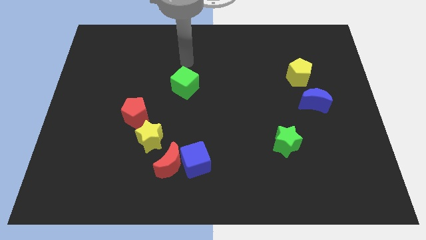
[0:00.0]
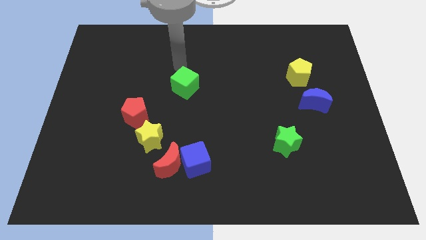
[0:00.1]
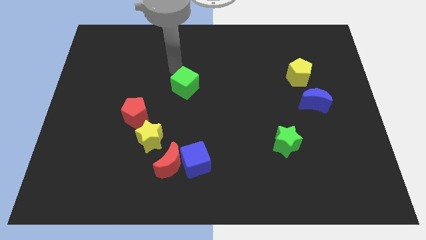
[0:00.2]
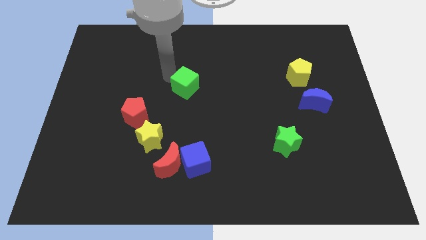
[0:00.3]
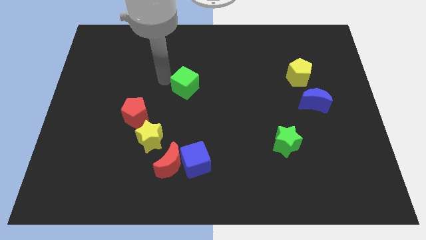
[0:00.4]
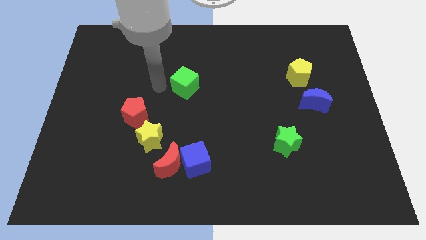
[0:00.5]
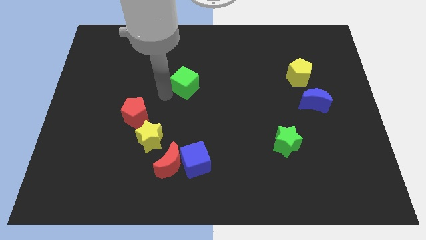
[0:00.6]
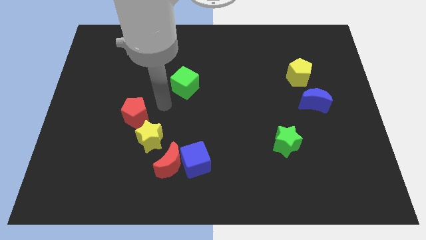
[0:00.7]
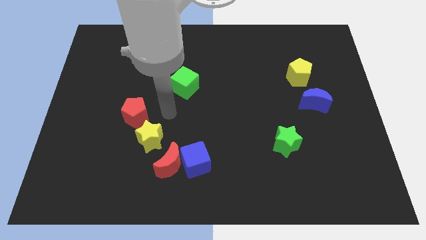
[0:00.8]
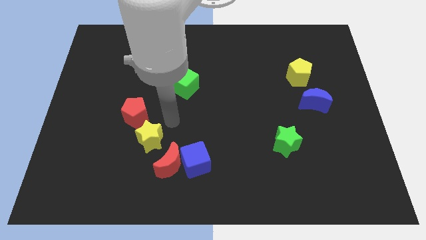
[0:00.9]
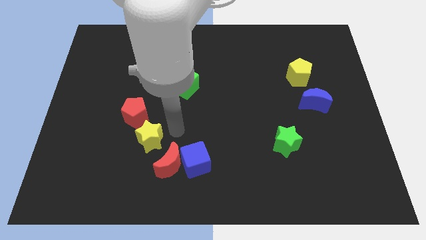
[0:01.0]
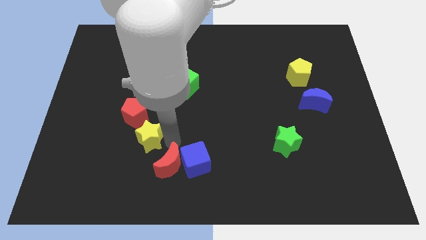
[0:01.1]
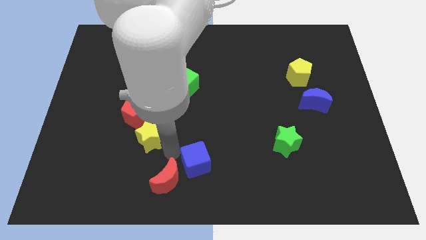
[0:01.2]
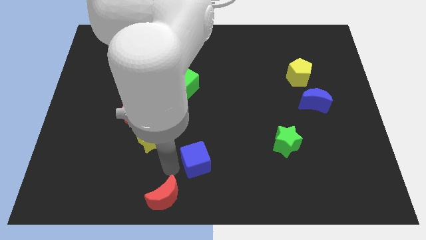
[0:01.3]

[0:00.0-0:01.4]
pull the blue cube apart from the red moon

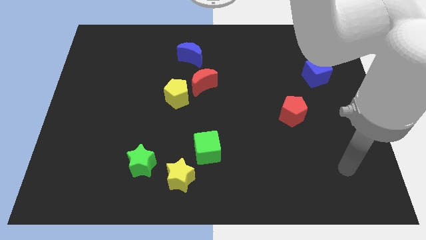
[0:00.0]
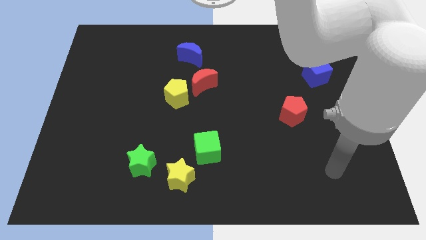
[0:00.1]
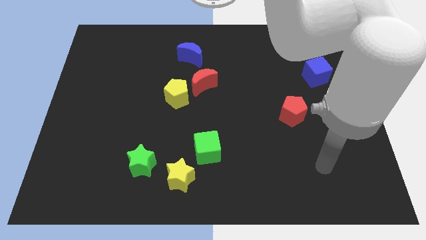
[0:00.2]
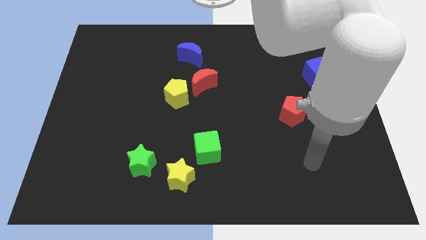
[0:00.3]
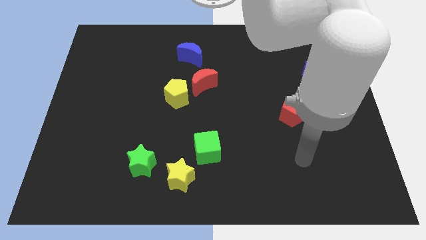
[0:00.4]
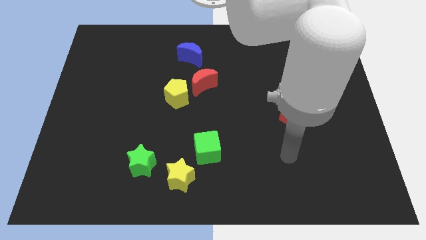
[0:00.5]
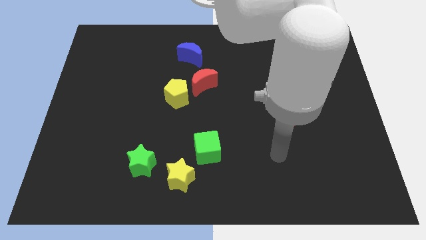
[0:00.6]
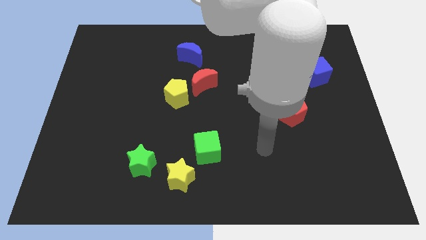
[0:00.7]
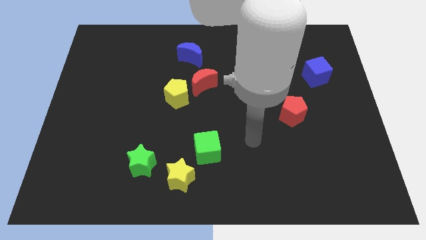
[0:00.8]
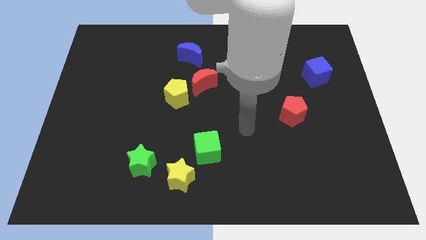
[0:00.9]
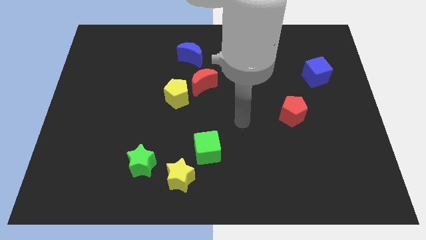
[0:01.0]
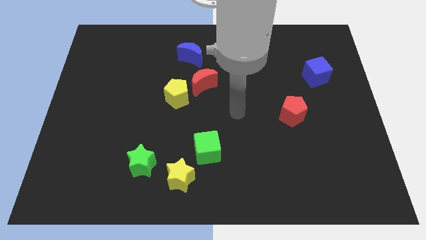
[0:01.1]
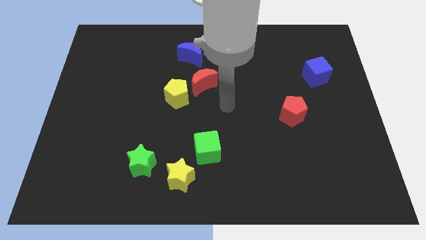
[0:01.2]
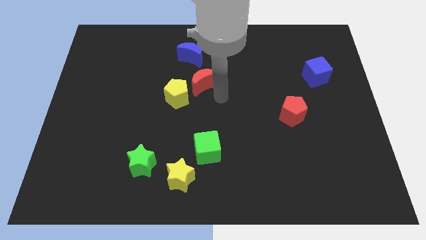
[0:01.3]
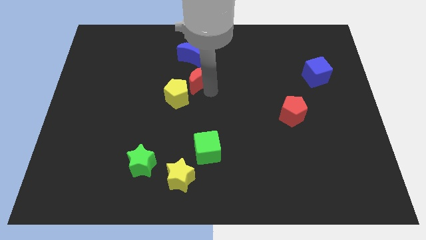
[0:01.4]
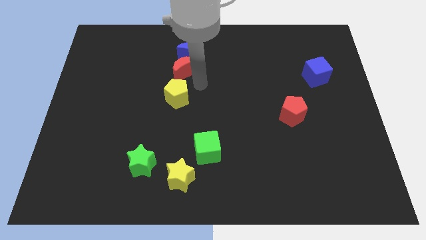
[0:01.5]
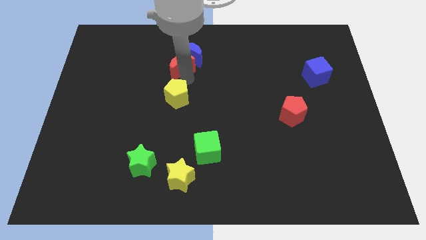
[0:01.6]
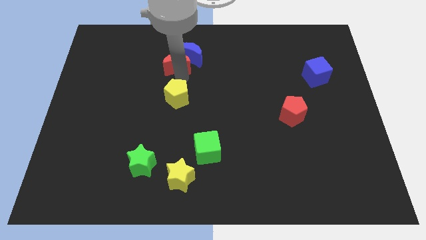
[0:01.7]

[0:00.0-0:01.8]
pull the yellow pentagon apart from the red moon

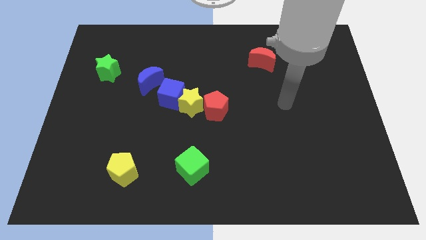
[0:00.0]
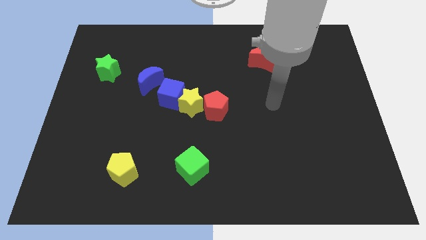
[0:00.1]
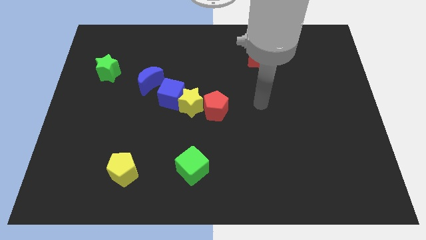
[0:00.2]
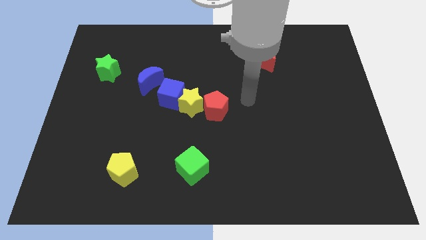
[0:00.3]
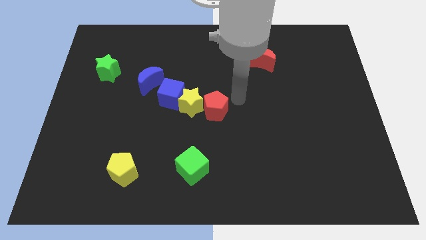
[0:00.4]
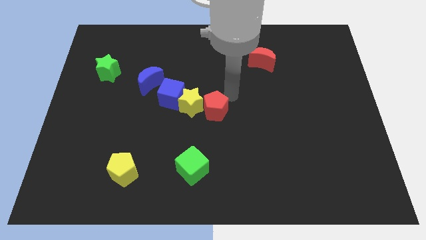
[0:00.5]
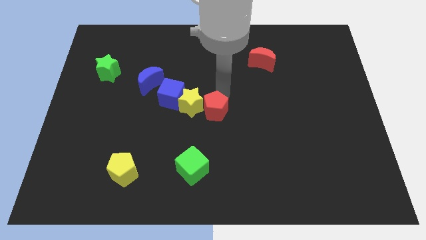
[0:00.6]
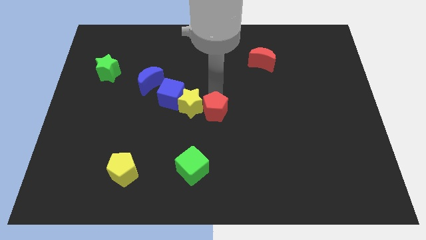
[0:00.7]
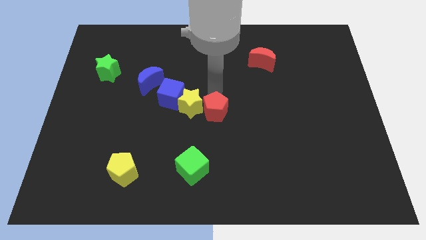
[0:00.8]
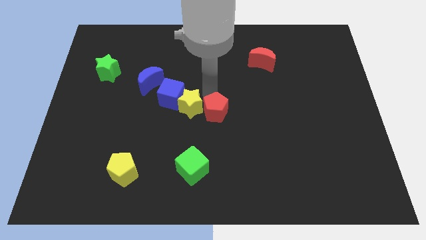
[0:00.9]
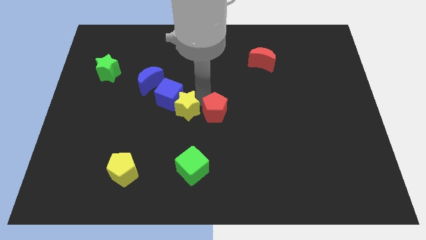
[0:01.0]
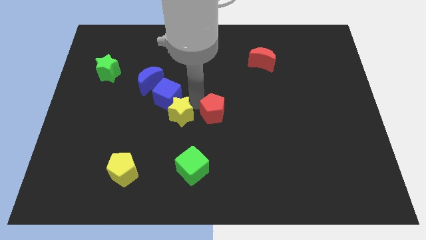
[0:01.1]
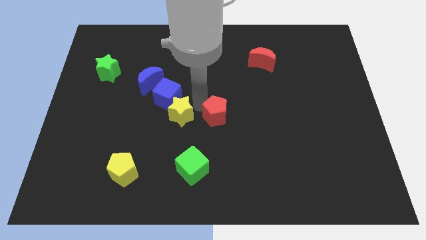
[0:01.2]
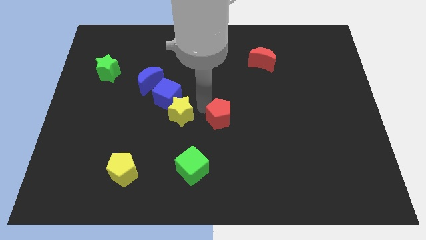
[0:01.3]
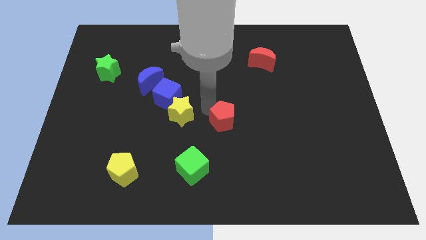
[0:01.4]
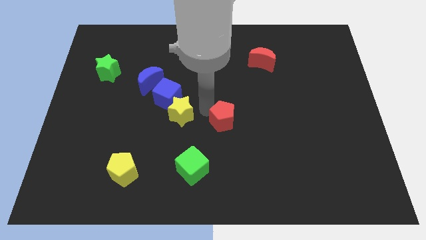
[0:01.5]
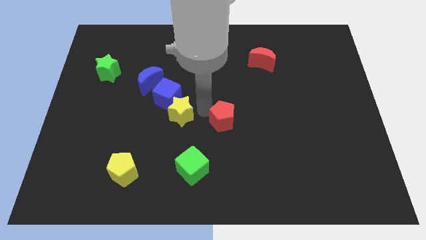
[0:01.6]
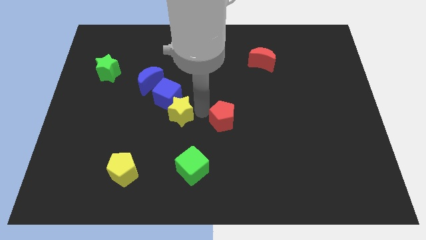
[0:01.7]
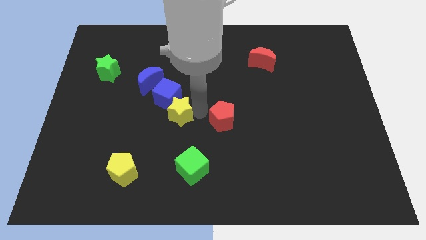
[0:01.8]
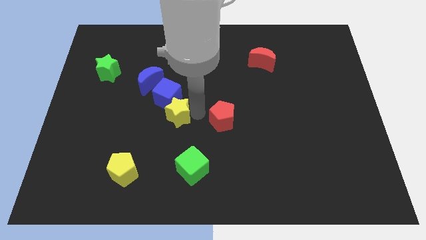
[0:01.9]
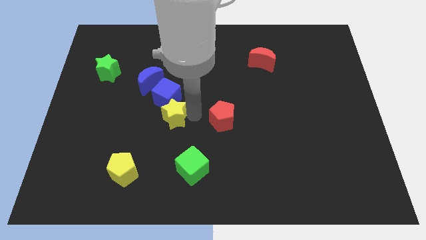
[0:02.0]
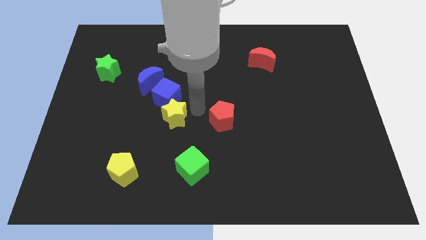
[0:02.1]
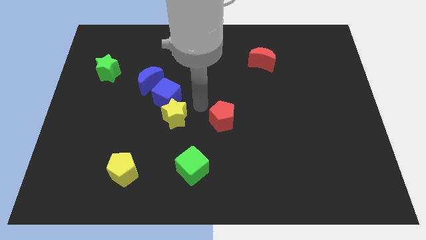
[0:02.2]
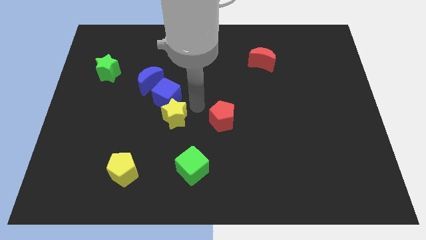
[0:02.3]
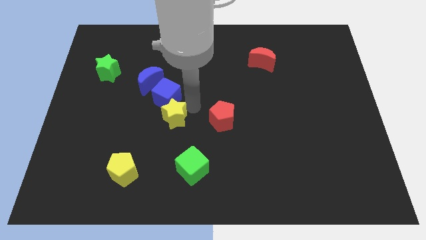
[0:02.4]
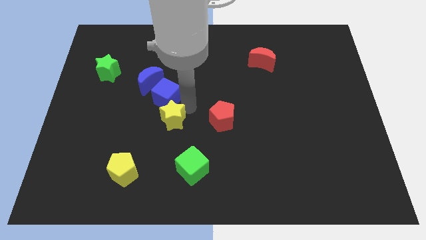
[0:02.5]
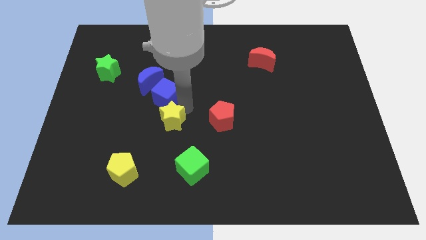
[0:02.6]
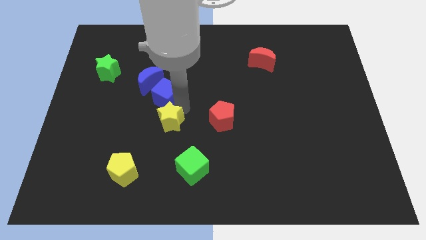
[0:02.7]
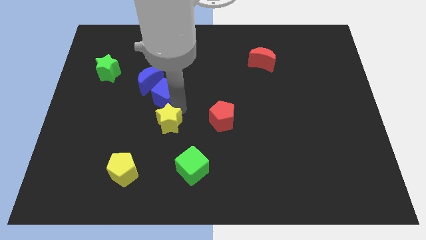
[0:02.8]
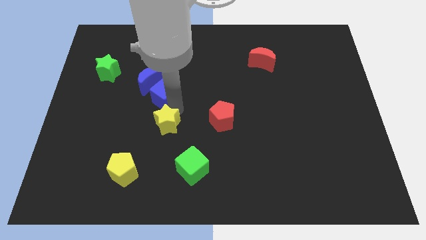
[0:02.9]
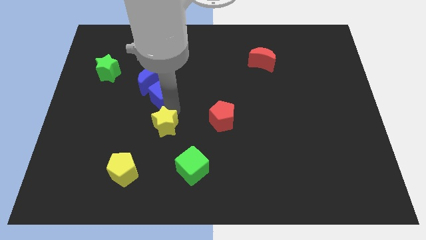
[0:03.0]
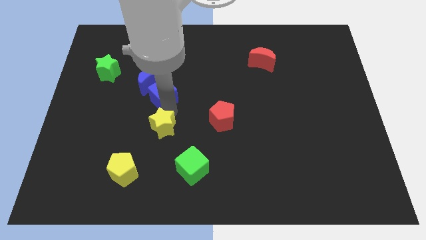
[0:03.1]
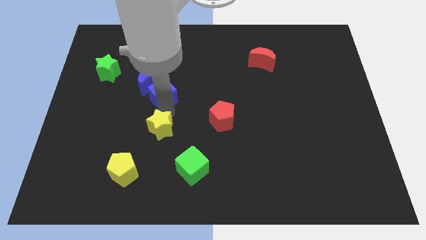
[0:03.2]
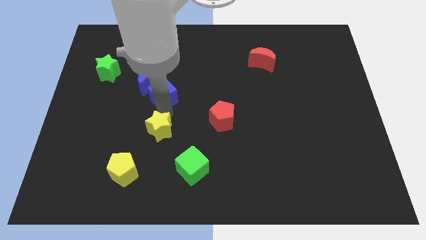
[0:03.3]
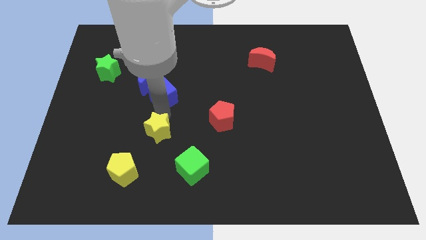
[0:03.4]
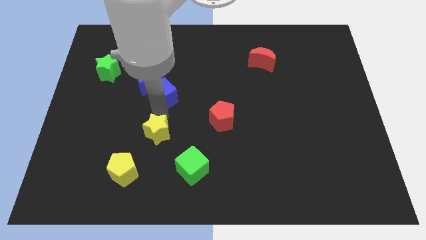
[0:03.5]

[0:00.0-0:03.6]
move the yellow star away from the blue cube and red pentagon

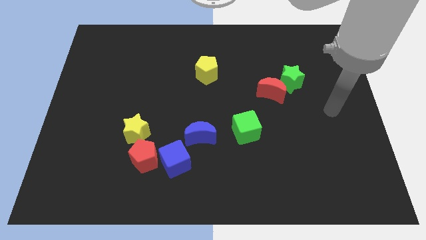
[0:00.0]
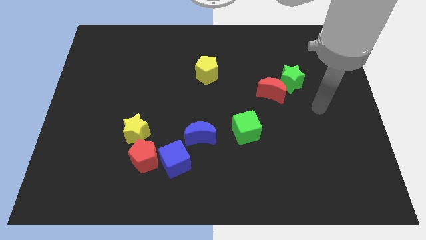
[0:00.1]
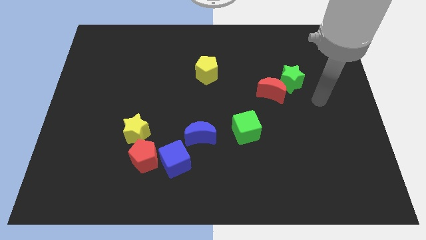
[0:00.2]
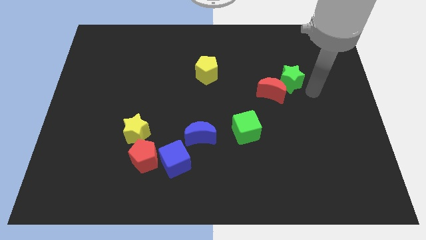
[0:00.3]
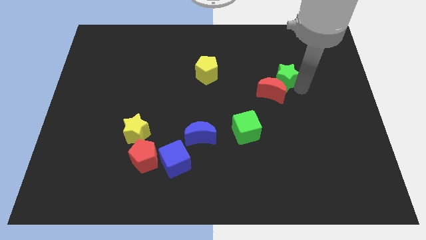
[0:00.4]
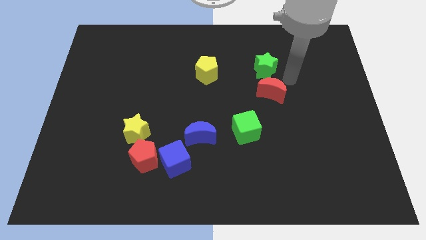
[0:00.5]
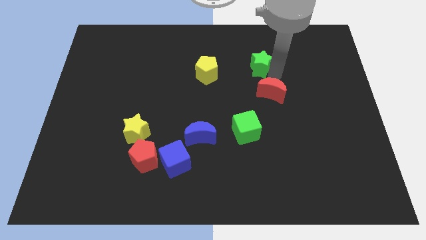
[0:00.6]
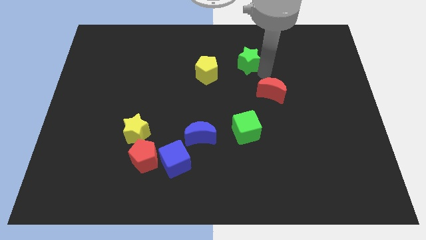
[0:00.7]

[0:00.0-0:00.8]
pull the red moon apart from the green star

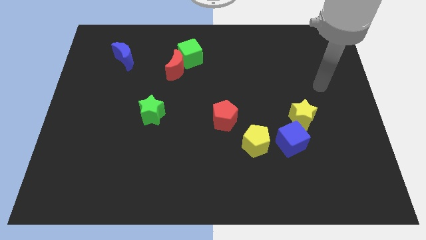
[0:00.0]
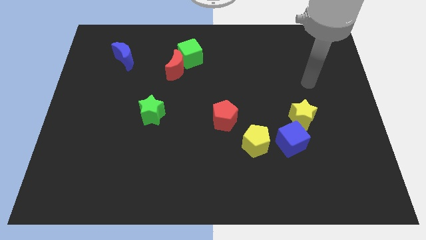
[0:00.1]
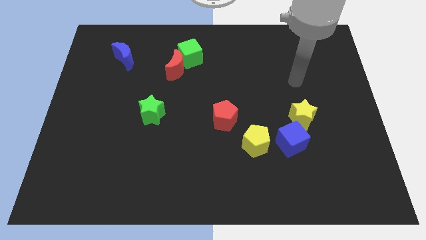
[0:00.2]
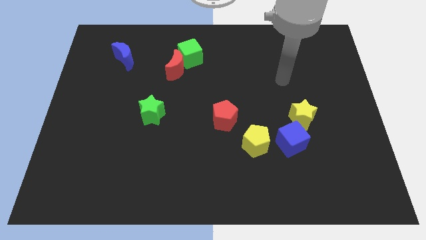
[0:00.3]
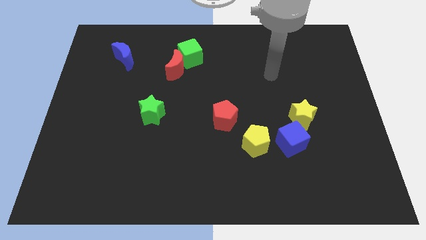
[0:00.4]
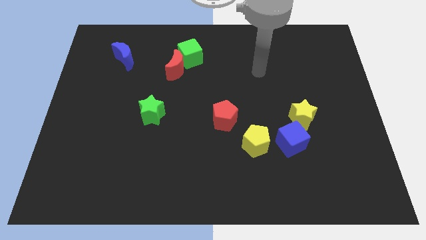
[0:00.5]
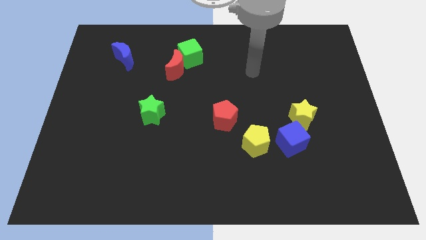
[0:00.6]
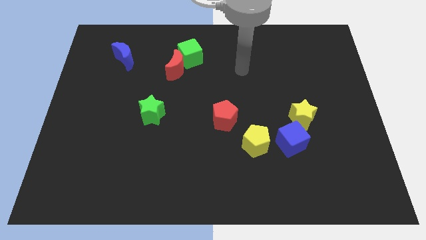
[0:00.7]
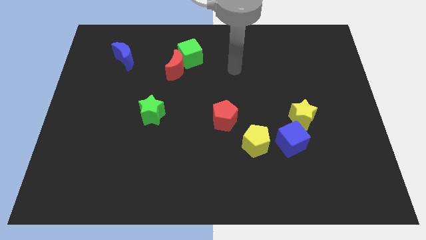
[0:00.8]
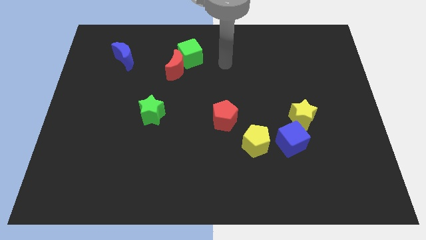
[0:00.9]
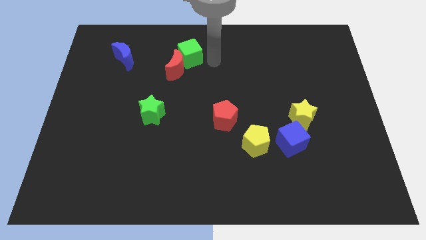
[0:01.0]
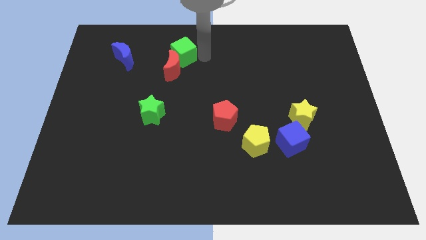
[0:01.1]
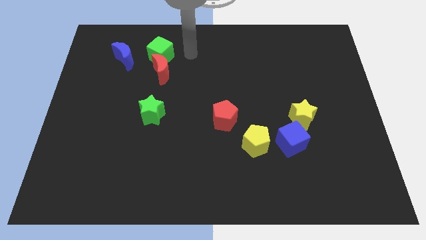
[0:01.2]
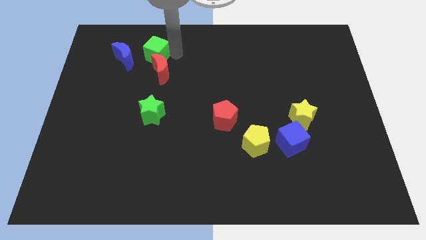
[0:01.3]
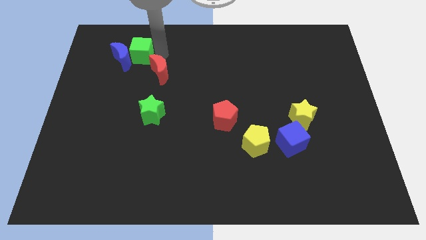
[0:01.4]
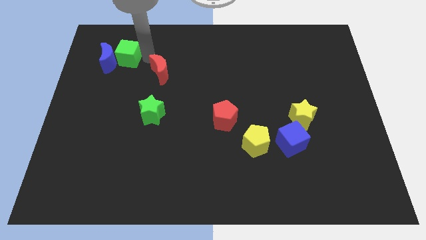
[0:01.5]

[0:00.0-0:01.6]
move the red moon away from the green cube

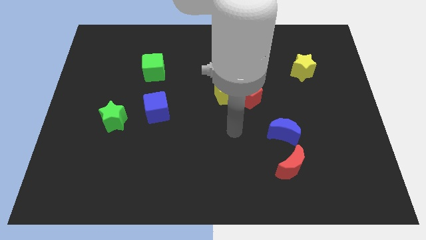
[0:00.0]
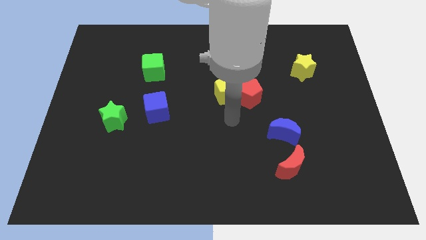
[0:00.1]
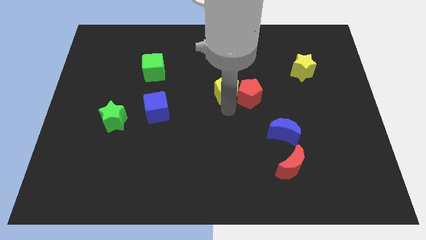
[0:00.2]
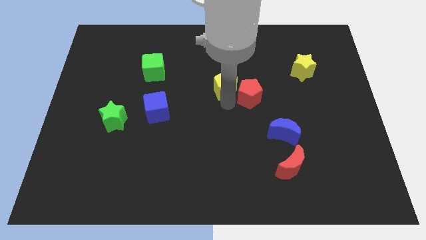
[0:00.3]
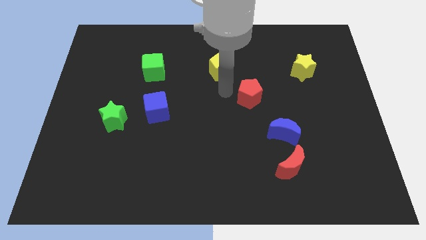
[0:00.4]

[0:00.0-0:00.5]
separate the red pentagon from the yellow pentagon
